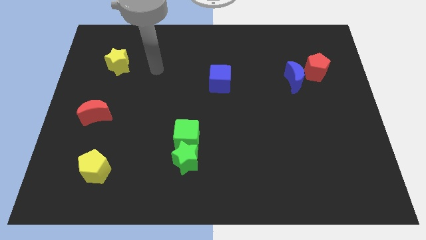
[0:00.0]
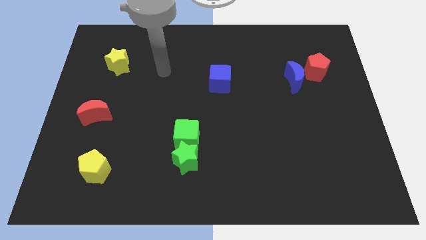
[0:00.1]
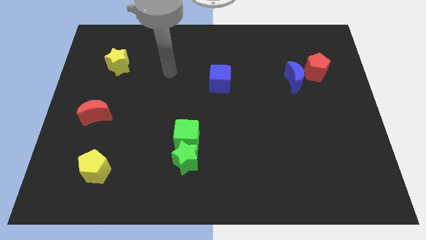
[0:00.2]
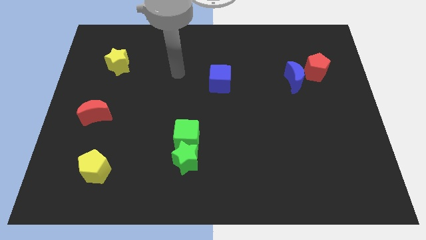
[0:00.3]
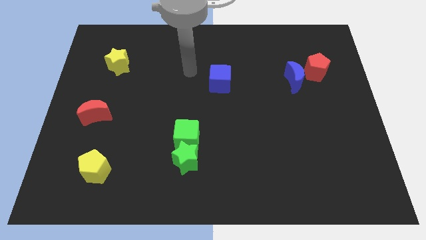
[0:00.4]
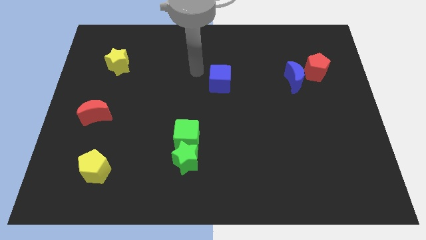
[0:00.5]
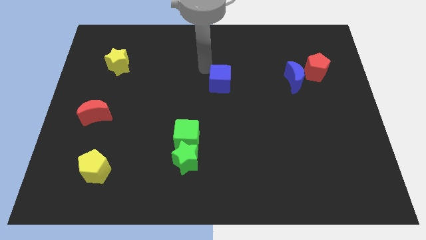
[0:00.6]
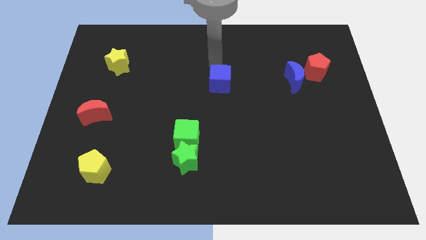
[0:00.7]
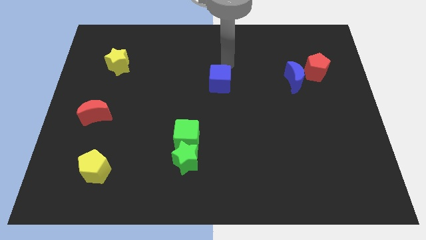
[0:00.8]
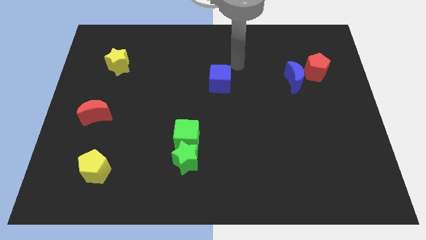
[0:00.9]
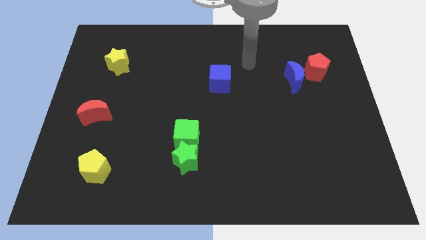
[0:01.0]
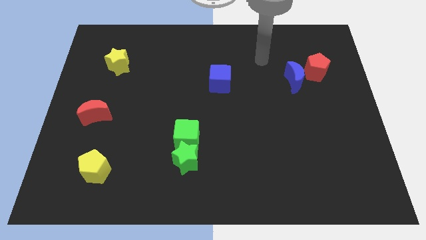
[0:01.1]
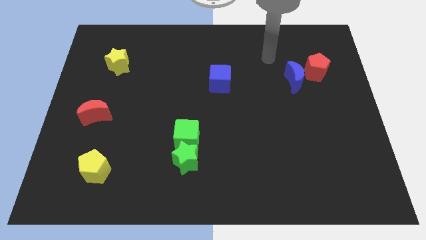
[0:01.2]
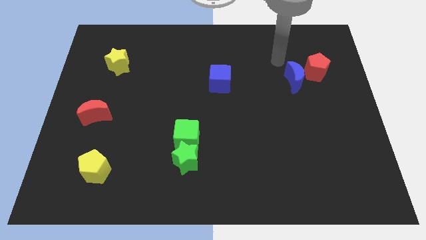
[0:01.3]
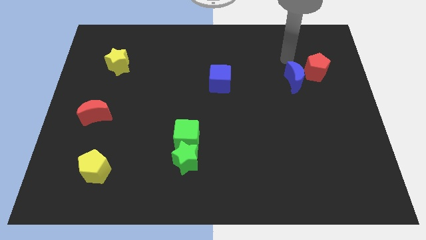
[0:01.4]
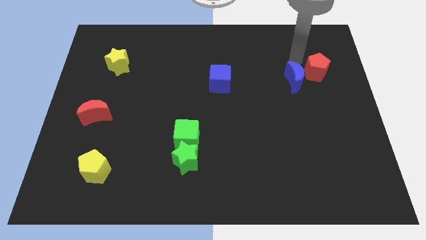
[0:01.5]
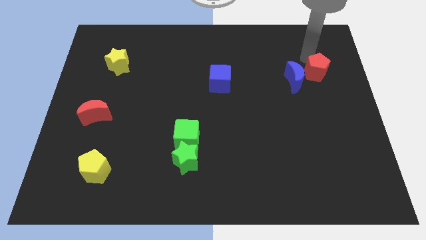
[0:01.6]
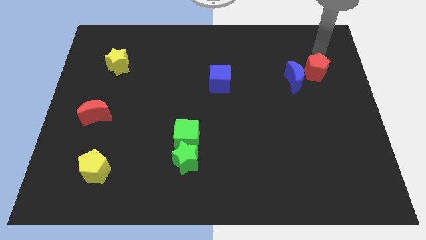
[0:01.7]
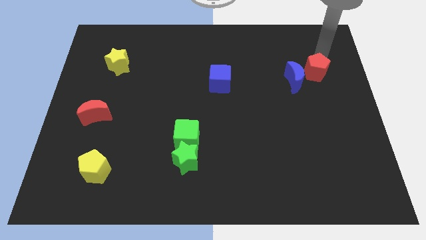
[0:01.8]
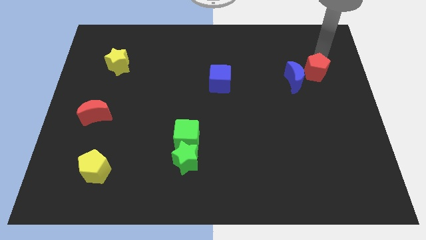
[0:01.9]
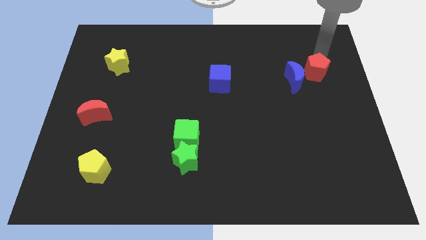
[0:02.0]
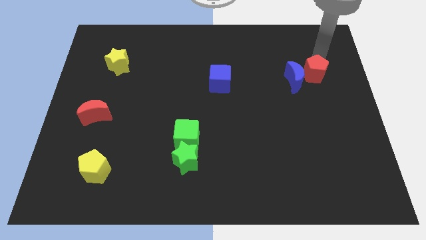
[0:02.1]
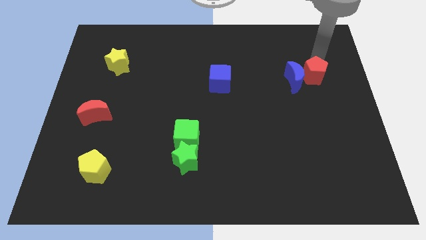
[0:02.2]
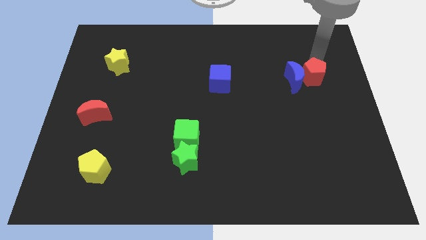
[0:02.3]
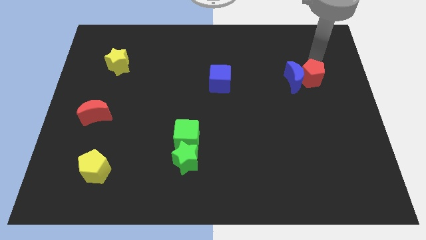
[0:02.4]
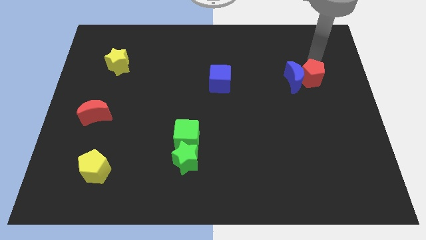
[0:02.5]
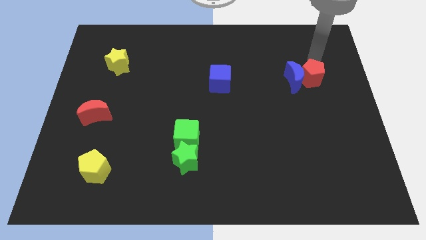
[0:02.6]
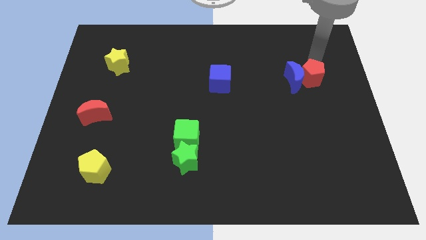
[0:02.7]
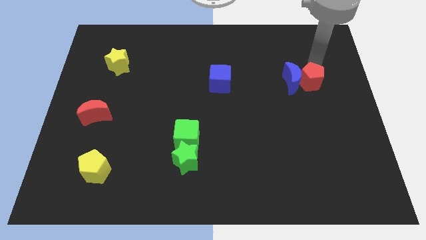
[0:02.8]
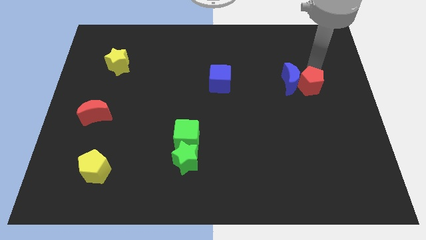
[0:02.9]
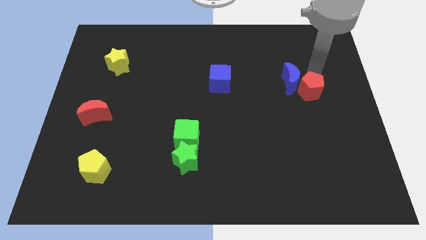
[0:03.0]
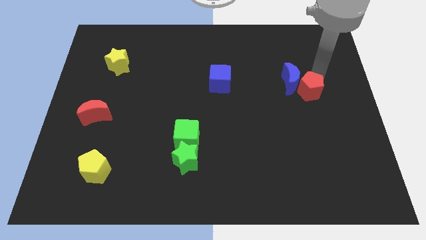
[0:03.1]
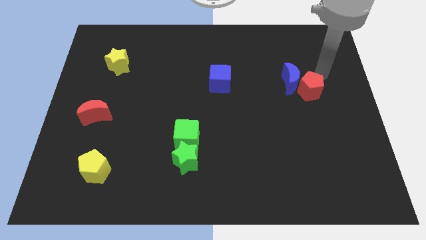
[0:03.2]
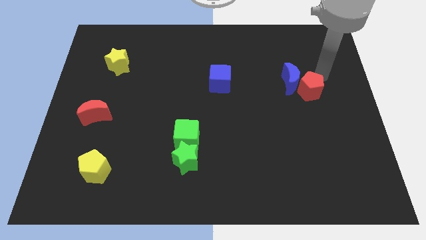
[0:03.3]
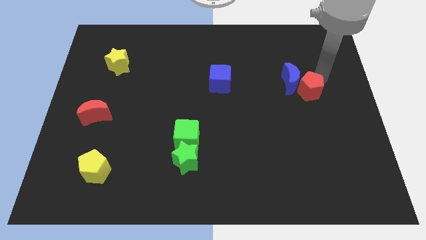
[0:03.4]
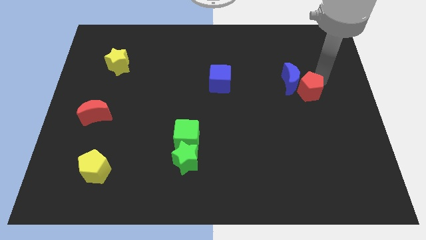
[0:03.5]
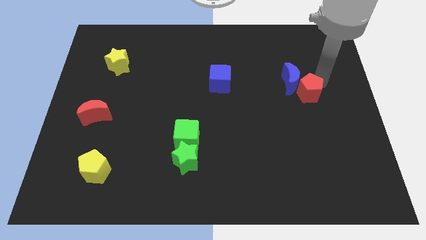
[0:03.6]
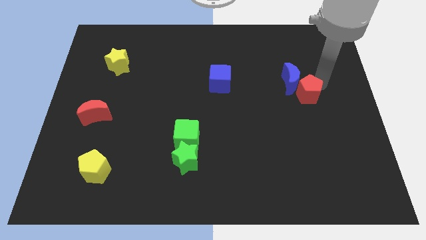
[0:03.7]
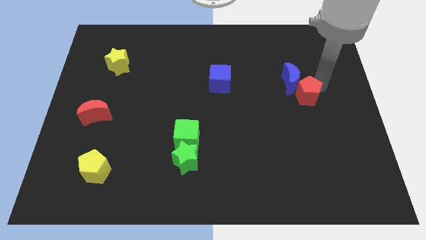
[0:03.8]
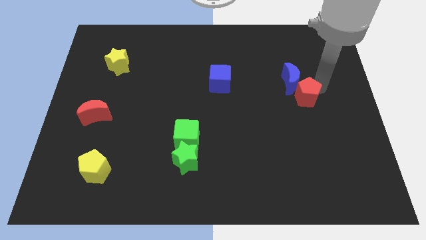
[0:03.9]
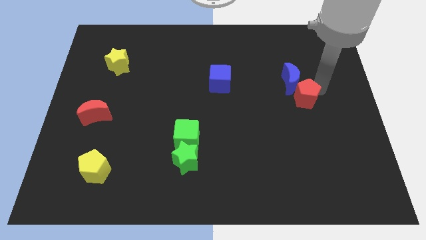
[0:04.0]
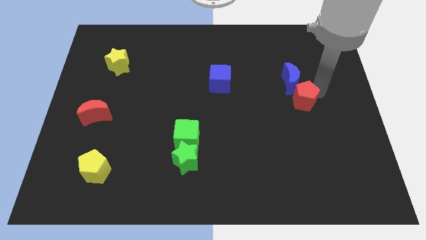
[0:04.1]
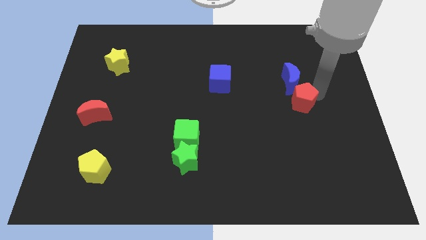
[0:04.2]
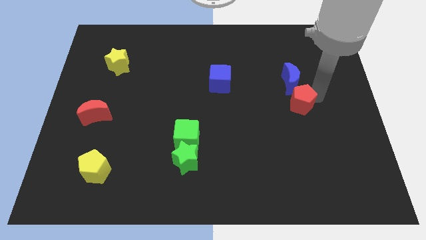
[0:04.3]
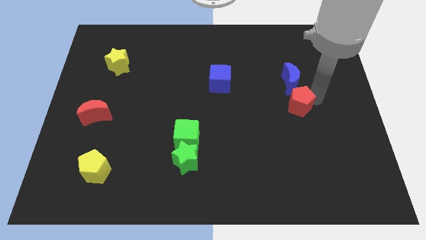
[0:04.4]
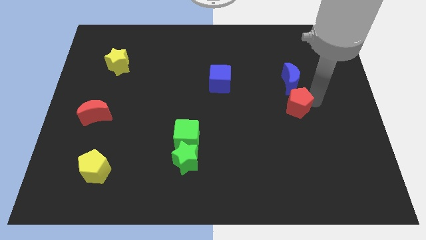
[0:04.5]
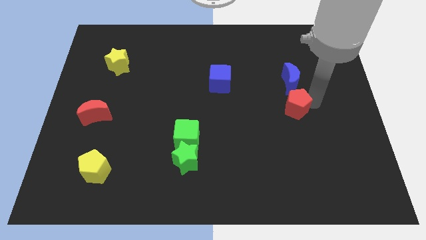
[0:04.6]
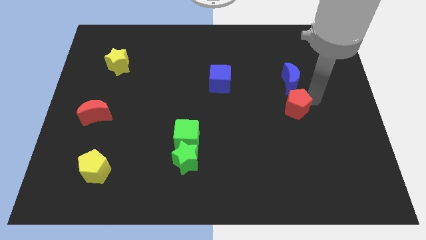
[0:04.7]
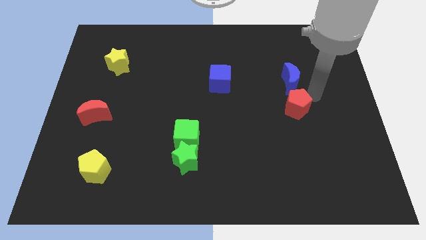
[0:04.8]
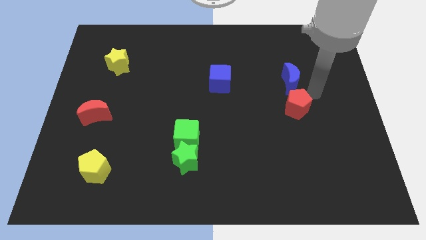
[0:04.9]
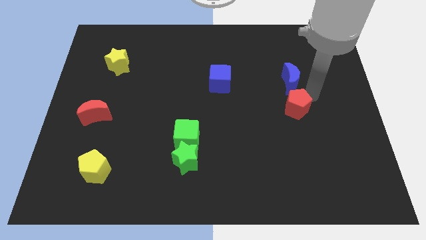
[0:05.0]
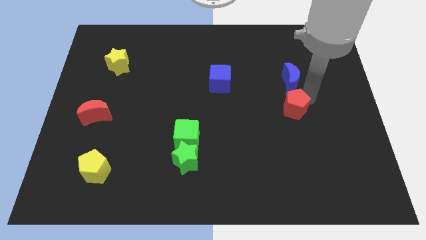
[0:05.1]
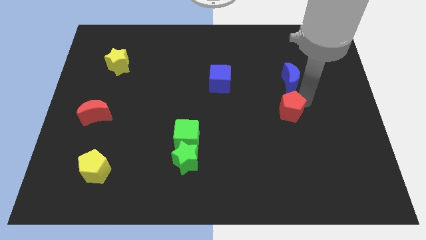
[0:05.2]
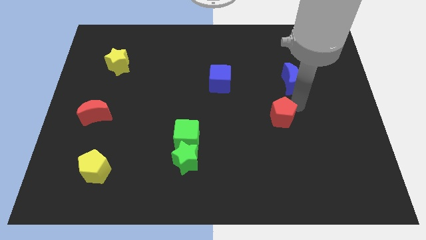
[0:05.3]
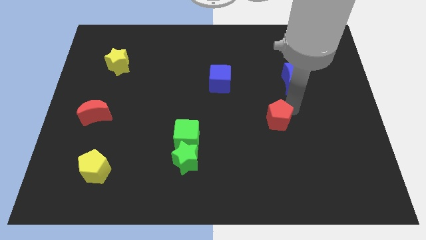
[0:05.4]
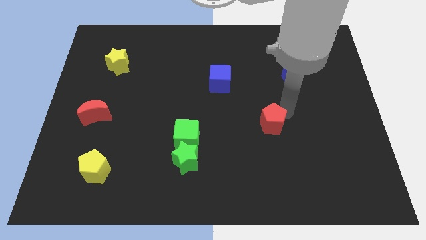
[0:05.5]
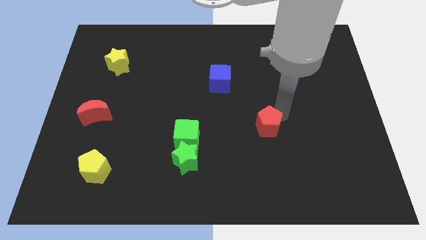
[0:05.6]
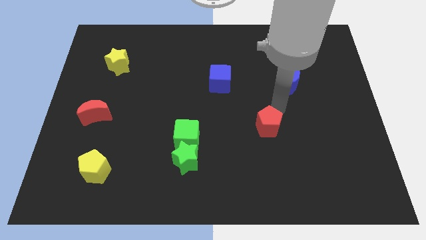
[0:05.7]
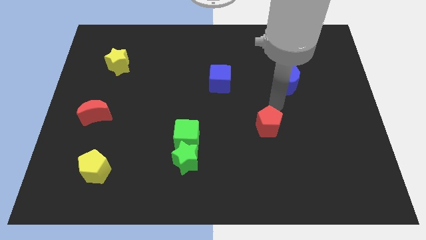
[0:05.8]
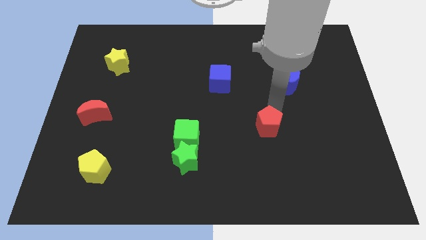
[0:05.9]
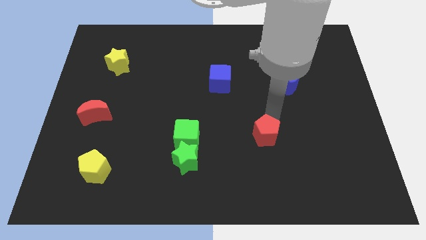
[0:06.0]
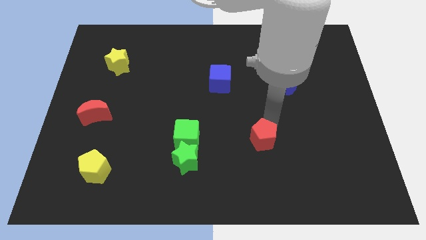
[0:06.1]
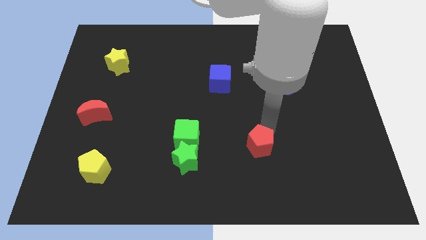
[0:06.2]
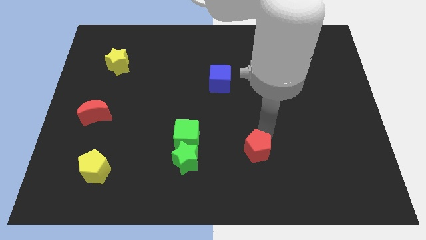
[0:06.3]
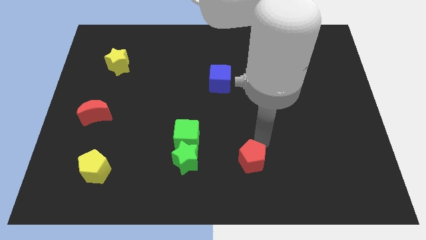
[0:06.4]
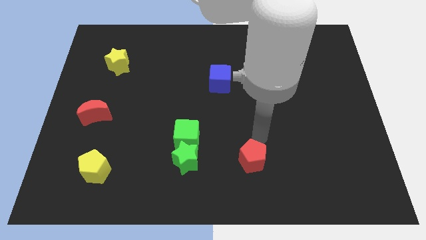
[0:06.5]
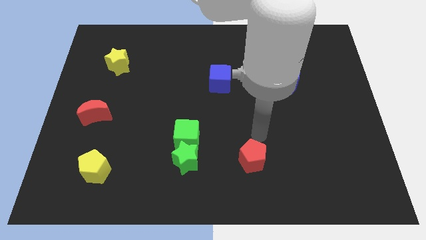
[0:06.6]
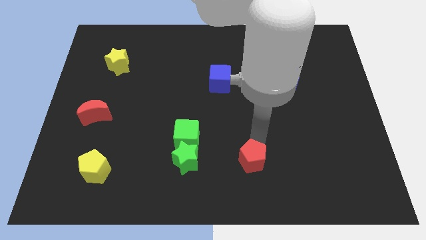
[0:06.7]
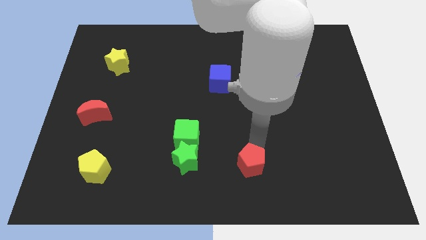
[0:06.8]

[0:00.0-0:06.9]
push the red pentagon to the bottom
